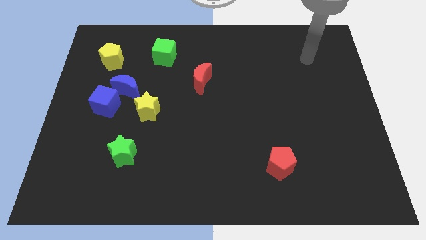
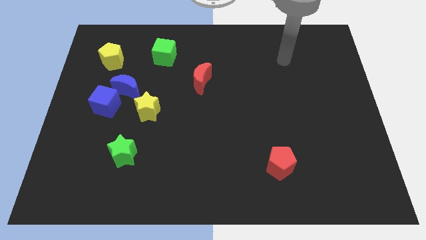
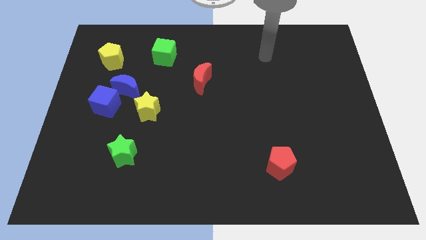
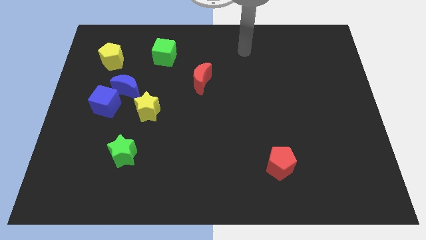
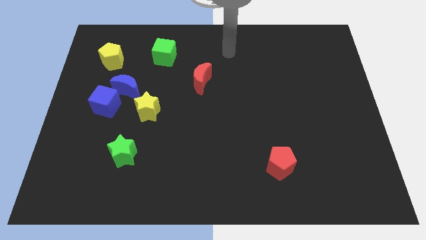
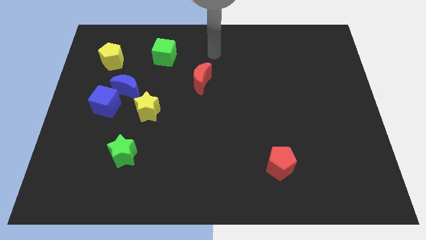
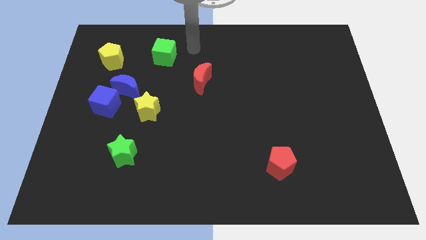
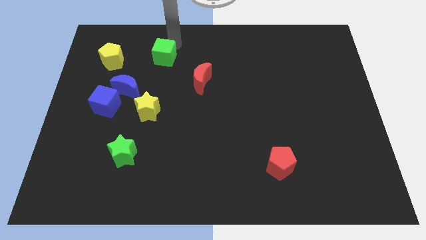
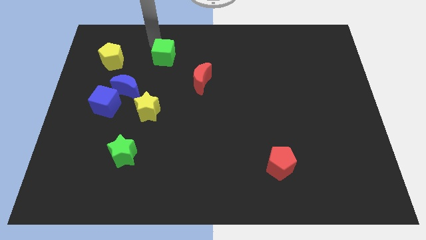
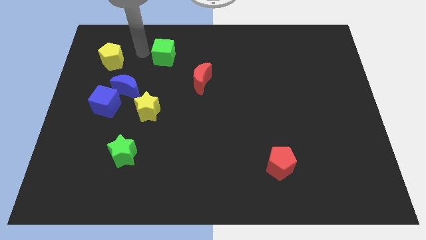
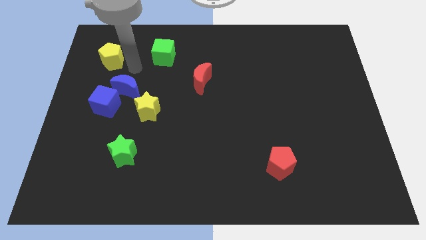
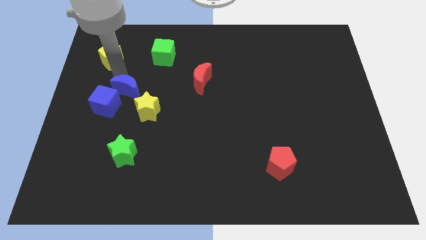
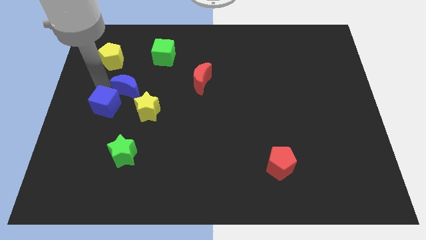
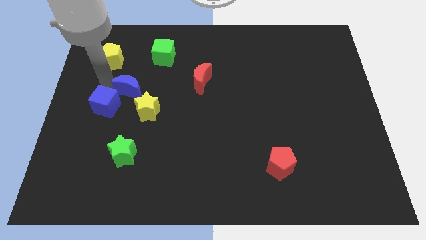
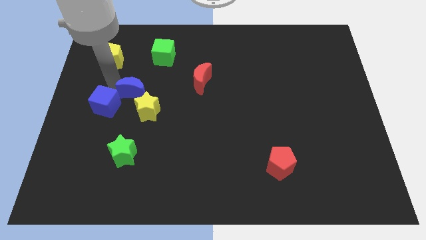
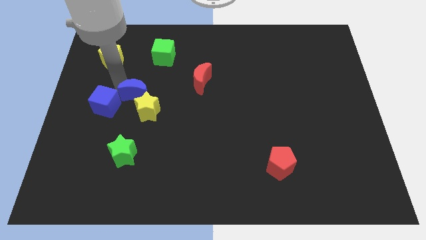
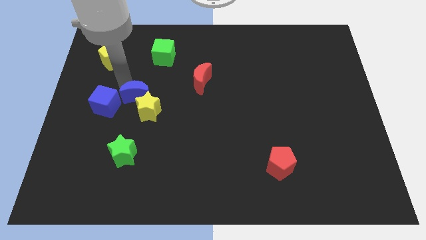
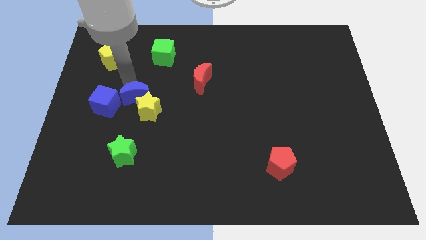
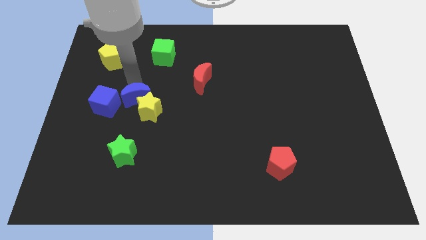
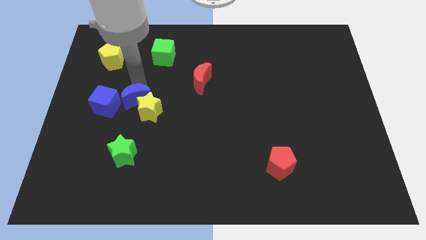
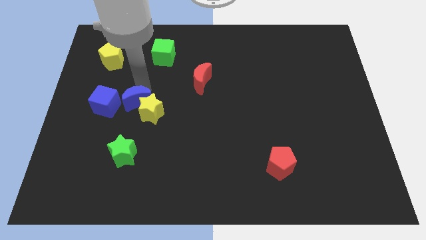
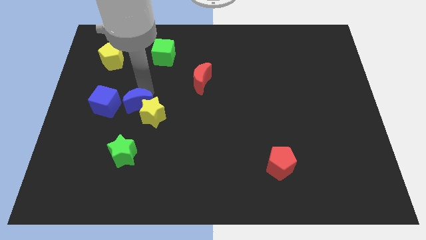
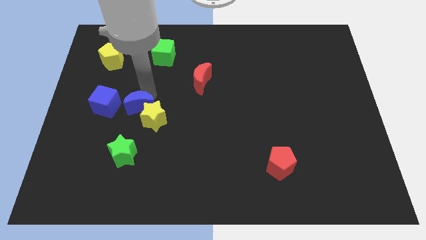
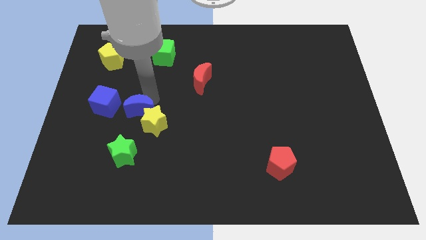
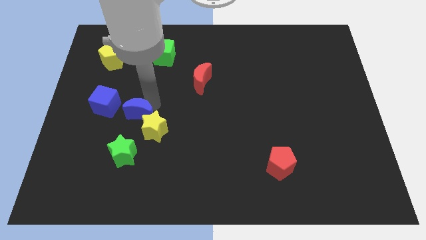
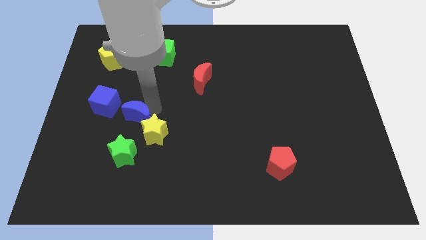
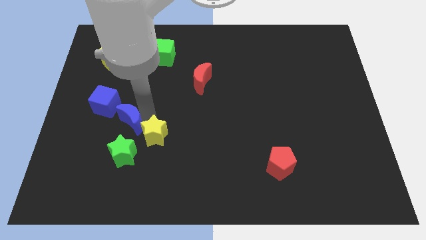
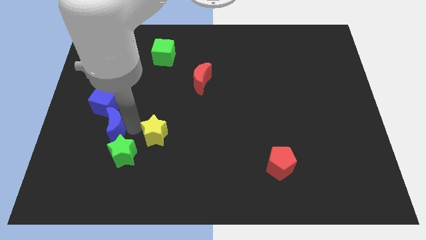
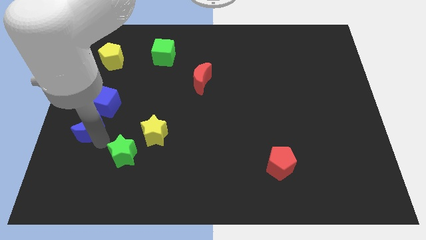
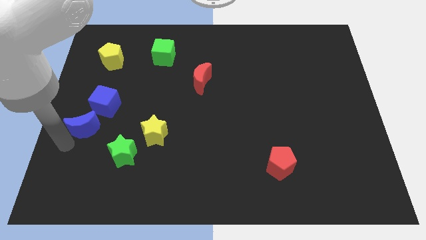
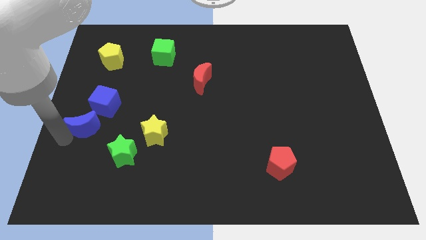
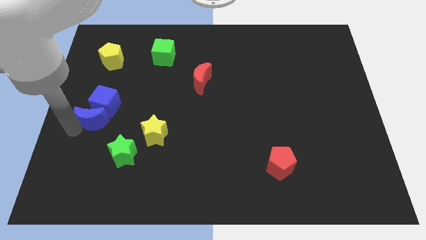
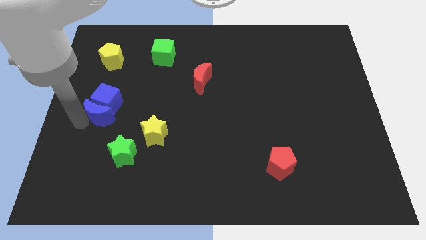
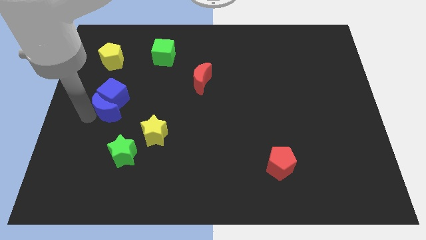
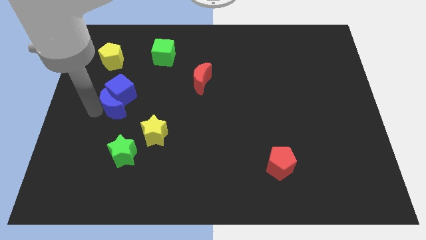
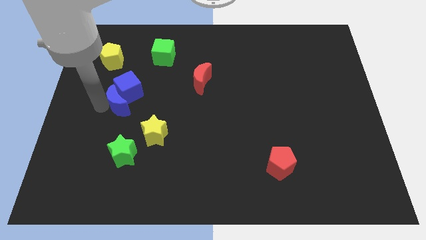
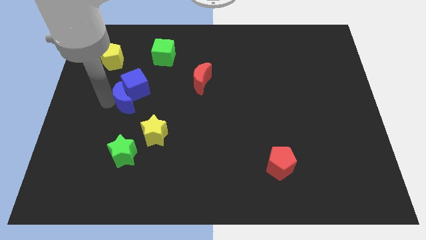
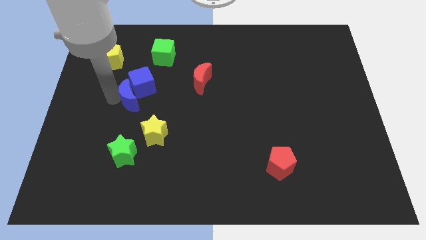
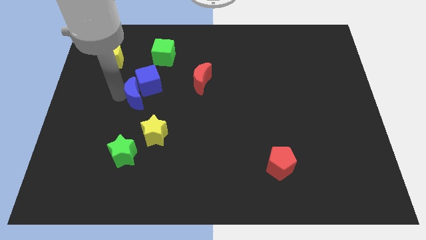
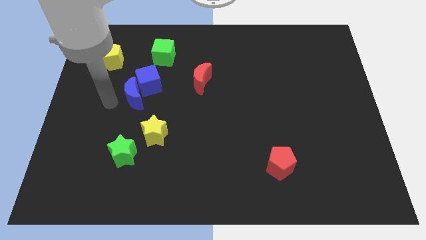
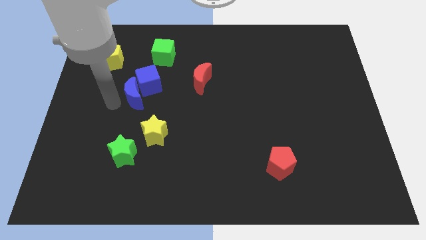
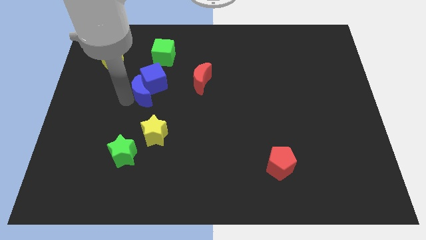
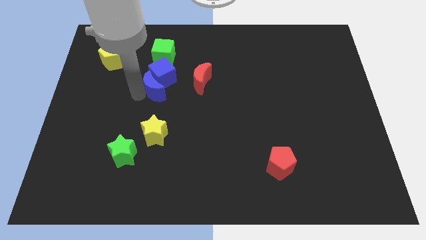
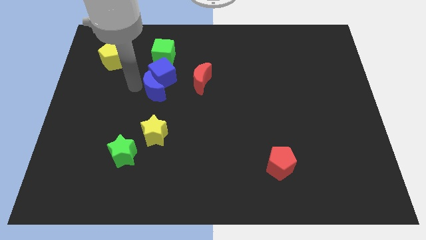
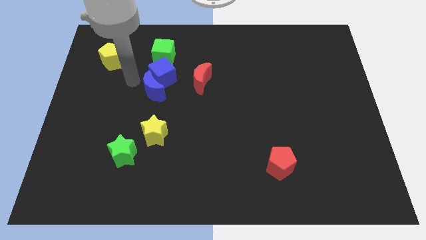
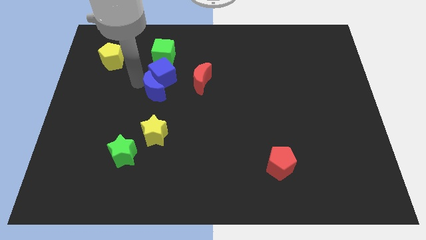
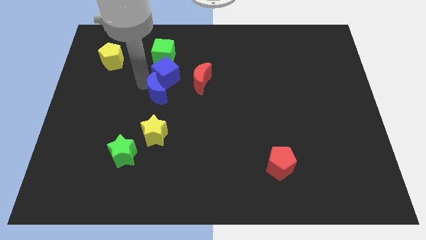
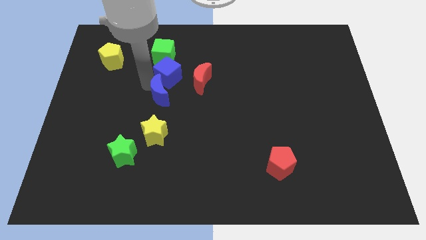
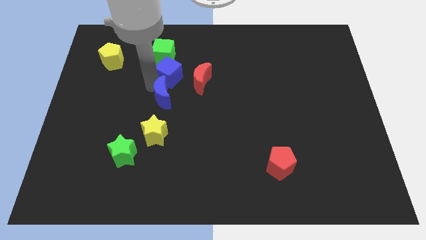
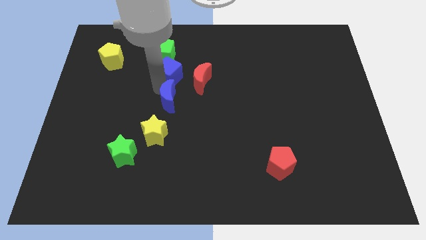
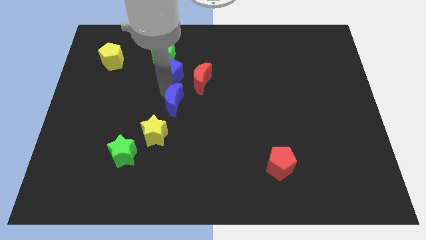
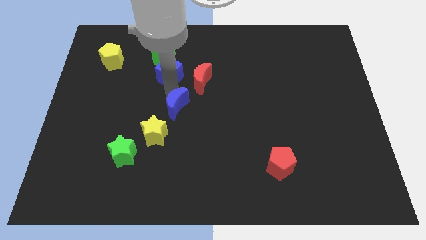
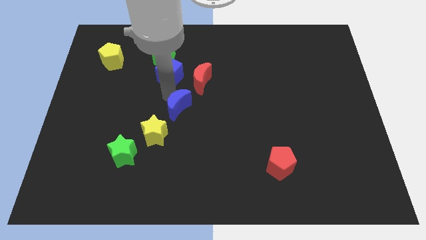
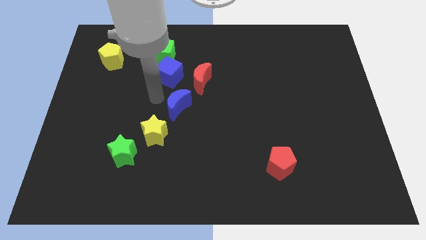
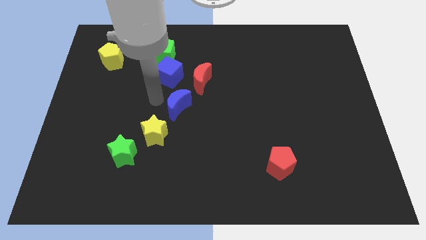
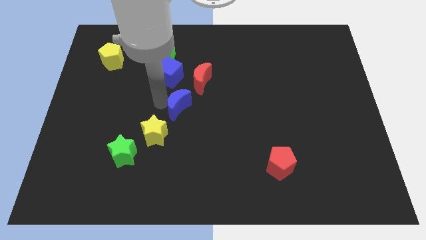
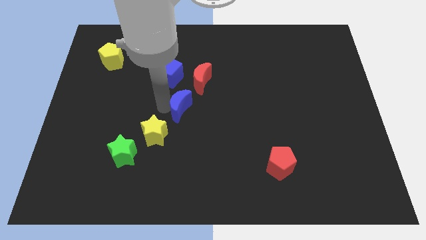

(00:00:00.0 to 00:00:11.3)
put the blue moon to the bottom side of the red moon
